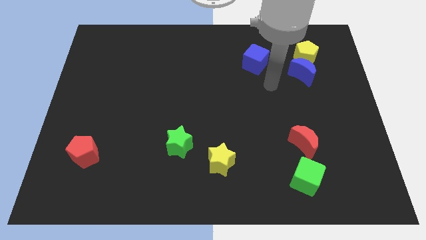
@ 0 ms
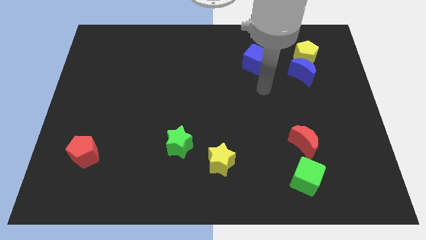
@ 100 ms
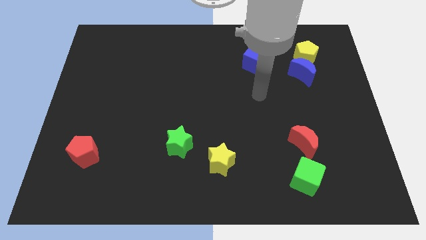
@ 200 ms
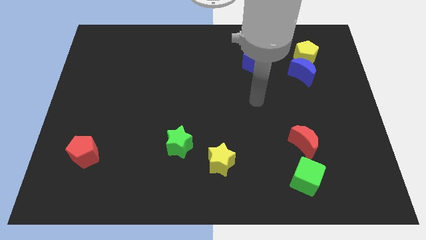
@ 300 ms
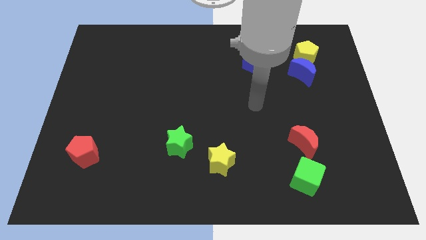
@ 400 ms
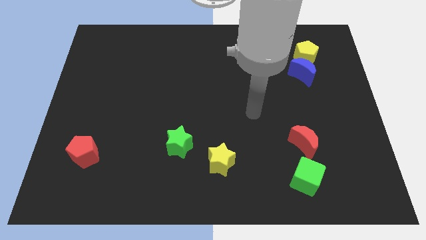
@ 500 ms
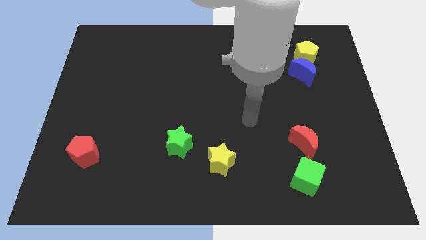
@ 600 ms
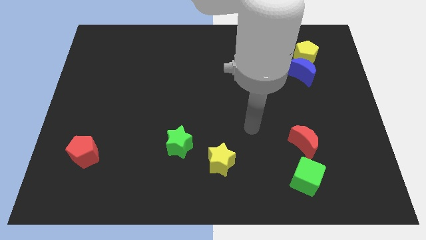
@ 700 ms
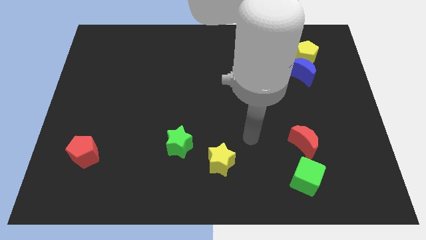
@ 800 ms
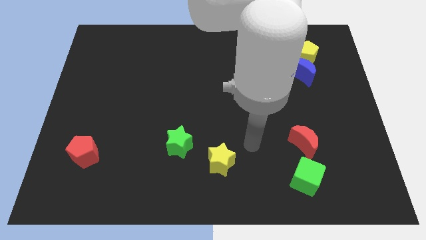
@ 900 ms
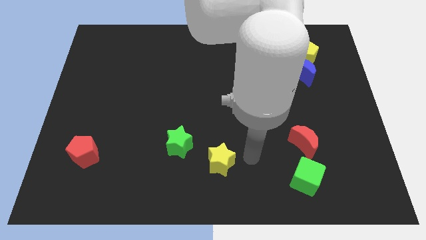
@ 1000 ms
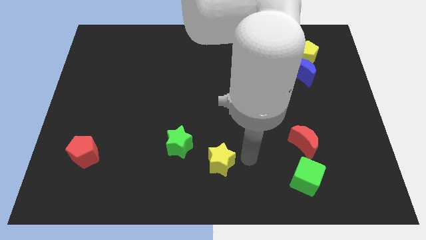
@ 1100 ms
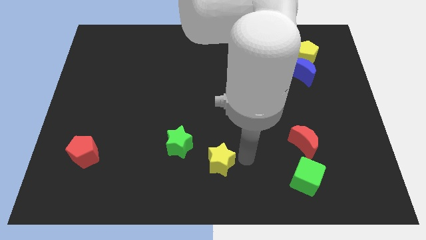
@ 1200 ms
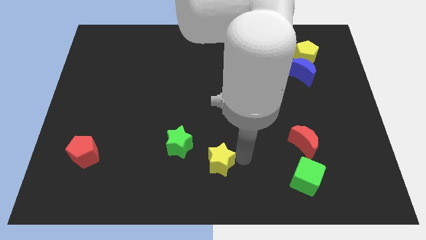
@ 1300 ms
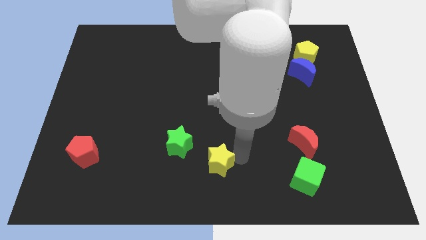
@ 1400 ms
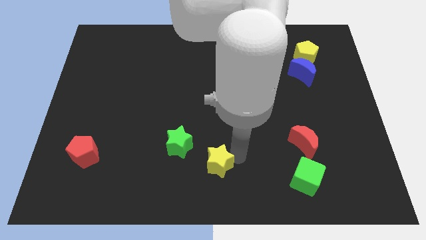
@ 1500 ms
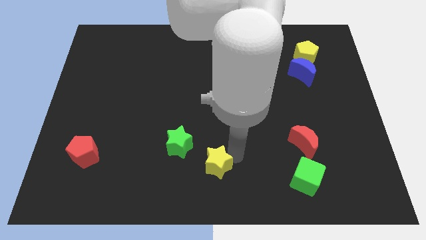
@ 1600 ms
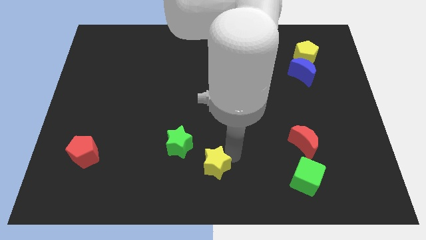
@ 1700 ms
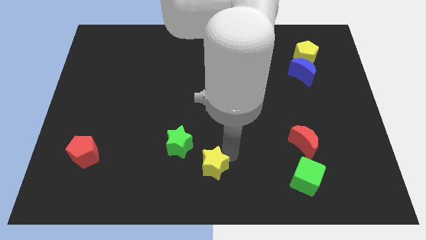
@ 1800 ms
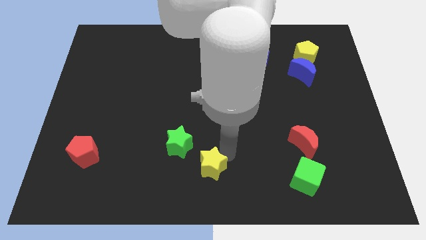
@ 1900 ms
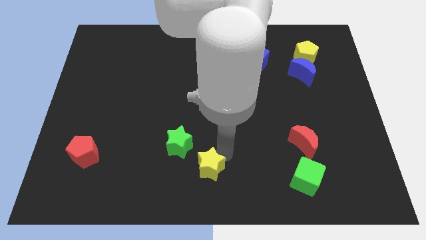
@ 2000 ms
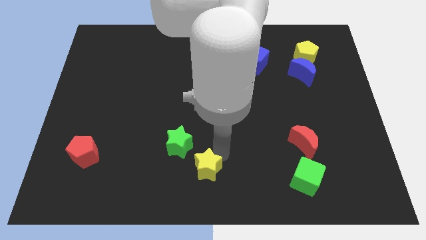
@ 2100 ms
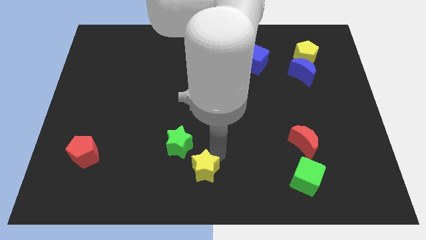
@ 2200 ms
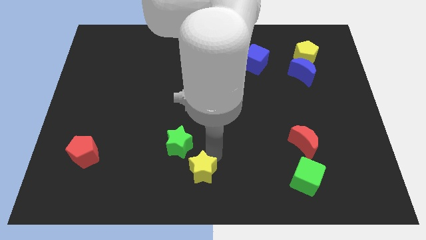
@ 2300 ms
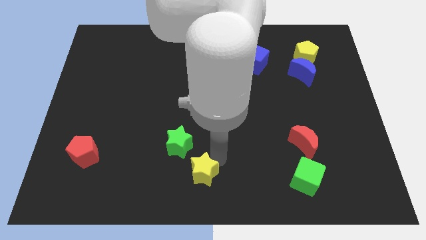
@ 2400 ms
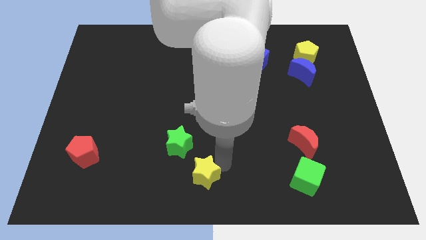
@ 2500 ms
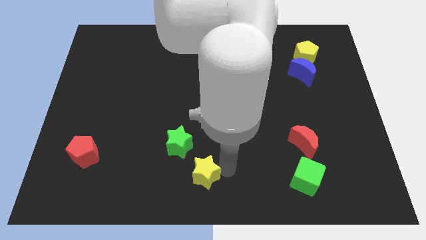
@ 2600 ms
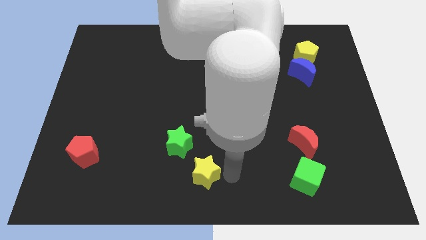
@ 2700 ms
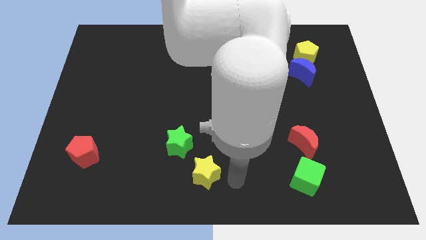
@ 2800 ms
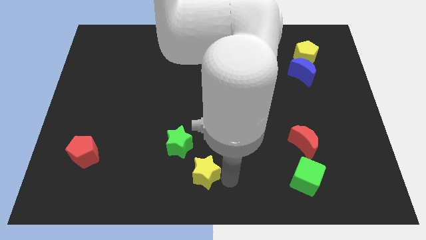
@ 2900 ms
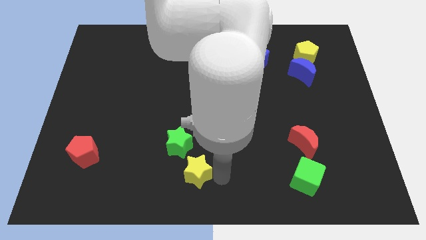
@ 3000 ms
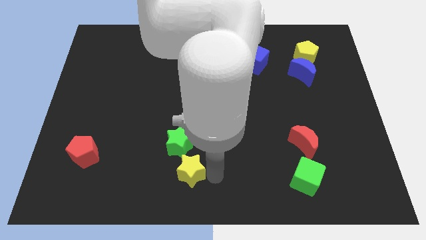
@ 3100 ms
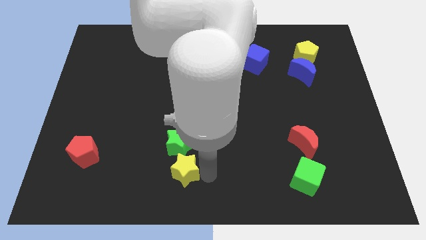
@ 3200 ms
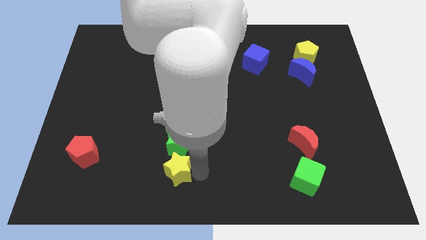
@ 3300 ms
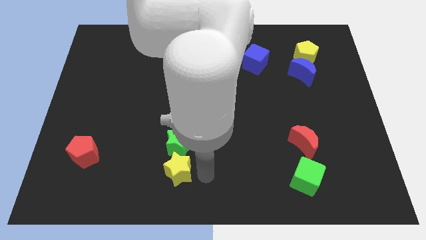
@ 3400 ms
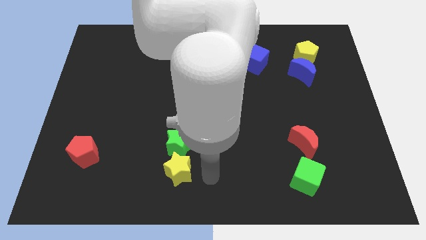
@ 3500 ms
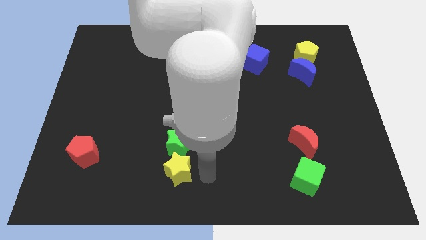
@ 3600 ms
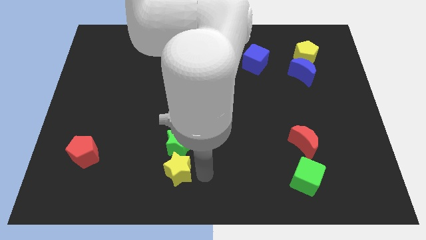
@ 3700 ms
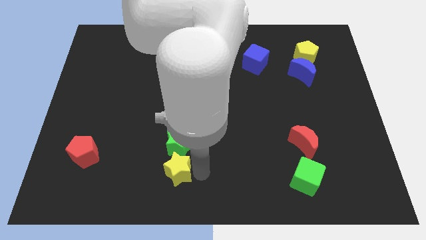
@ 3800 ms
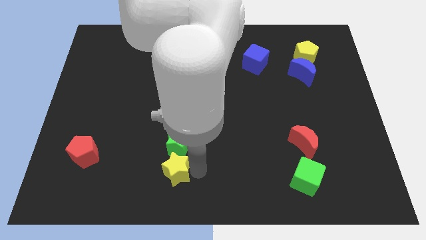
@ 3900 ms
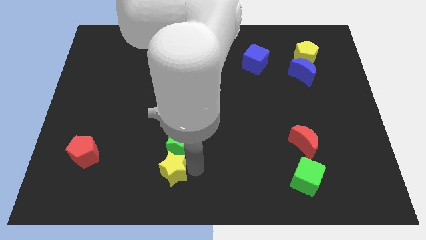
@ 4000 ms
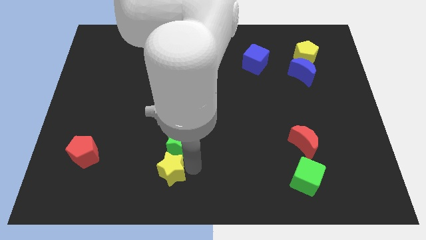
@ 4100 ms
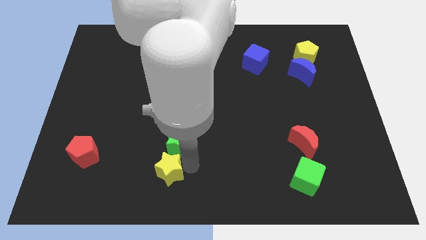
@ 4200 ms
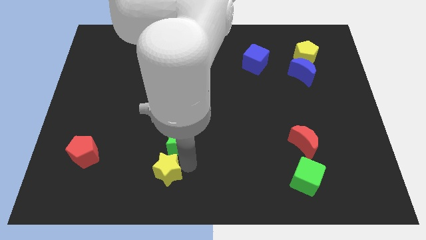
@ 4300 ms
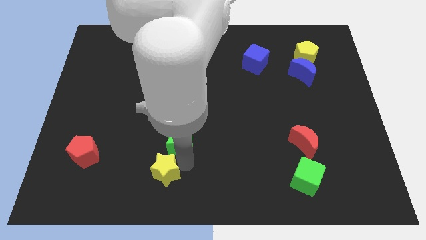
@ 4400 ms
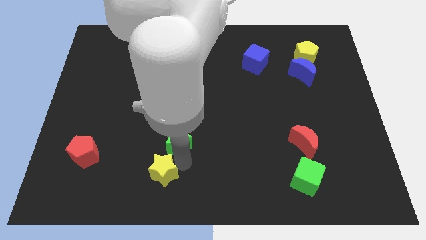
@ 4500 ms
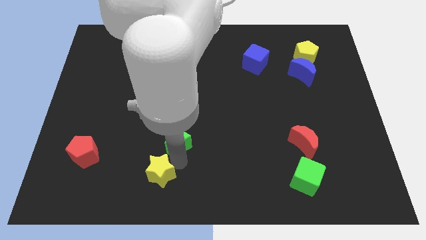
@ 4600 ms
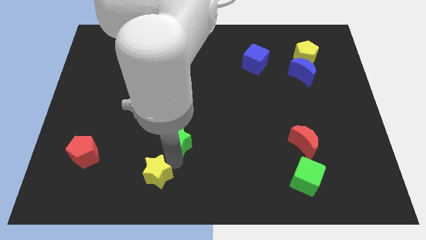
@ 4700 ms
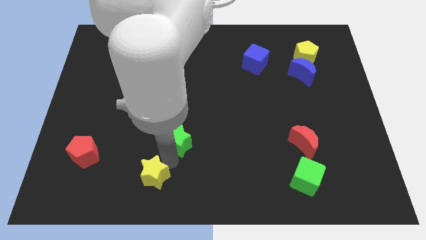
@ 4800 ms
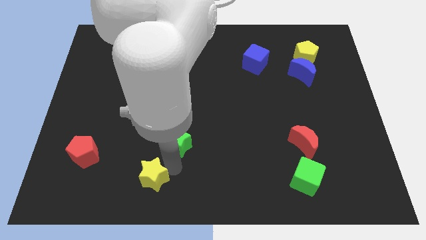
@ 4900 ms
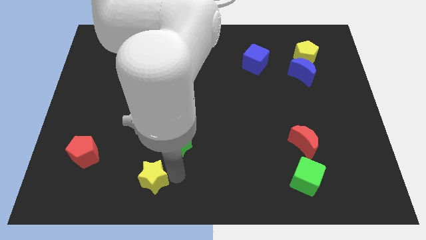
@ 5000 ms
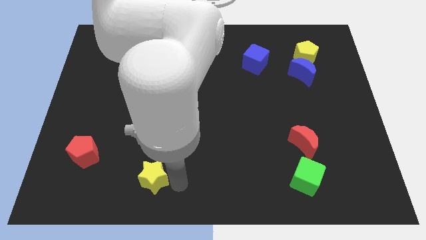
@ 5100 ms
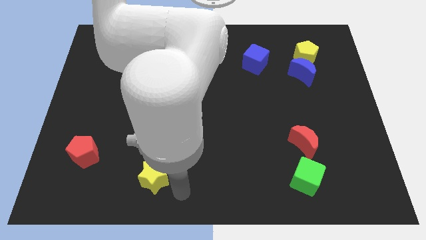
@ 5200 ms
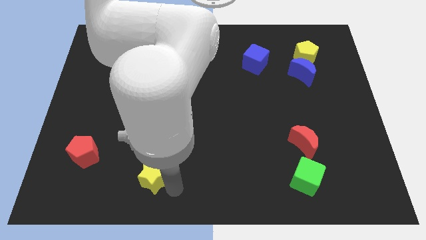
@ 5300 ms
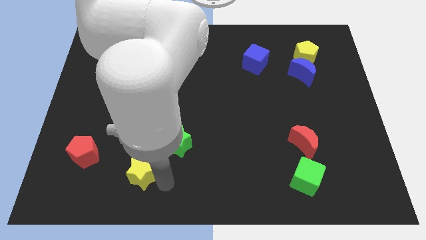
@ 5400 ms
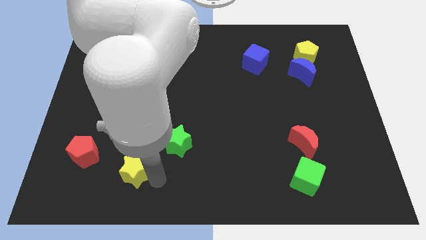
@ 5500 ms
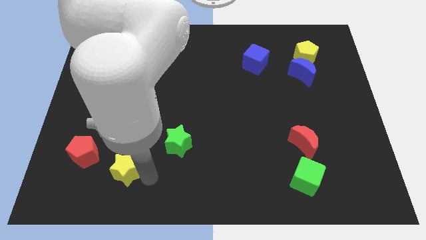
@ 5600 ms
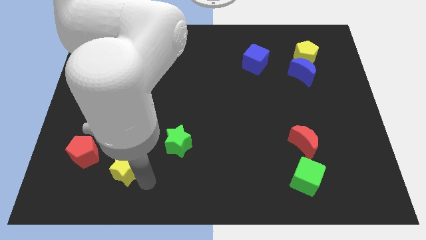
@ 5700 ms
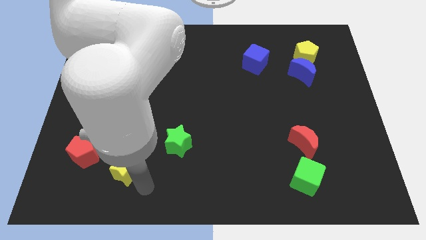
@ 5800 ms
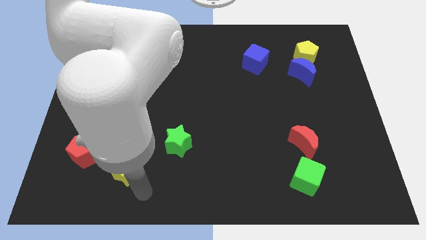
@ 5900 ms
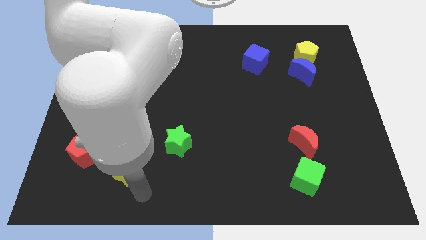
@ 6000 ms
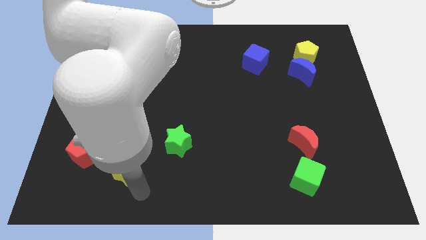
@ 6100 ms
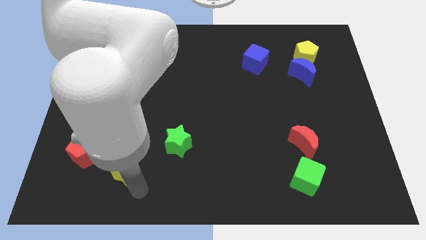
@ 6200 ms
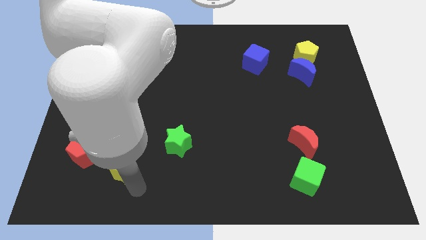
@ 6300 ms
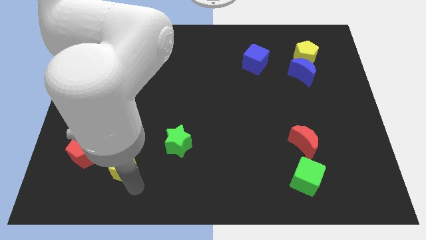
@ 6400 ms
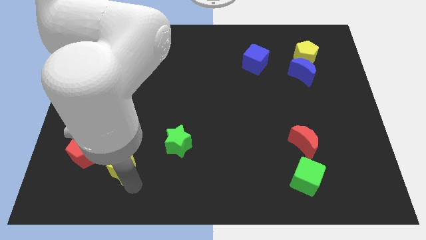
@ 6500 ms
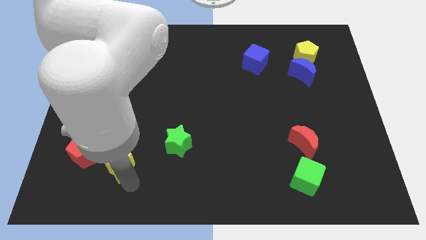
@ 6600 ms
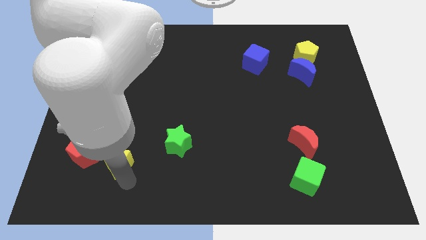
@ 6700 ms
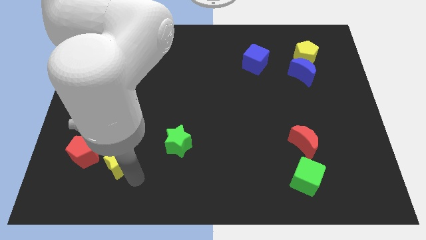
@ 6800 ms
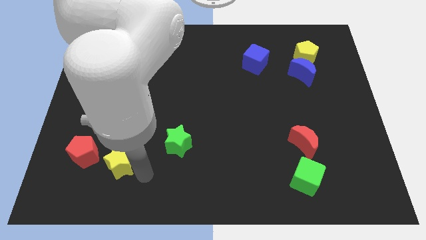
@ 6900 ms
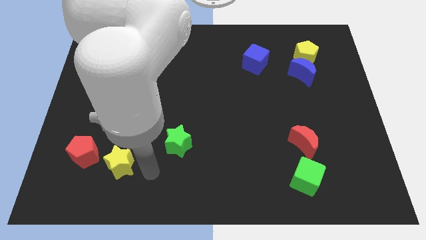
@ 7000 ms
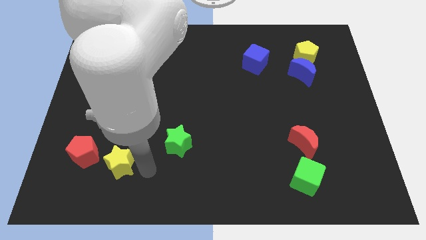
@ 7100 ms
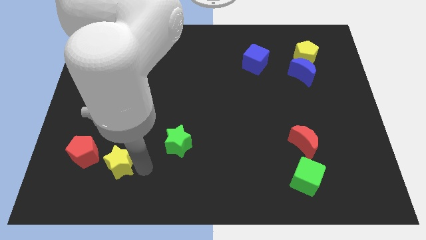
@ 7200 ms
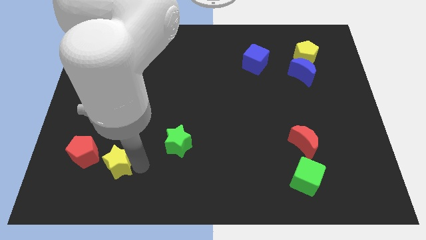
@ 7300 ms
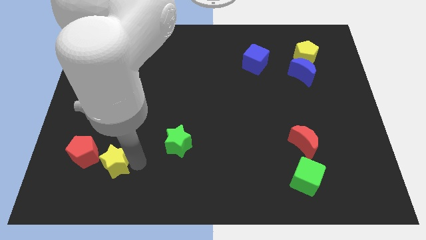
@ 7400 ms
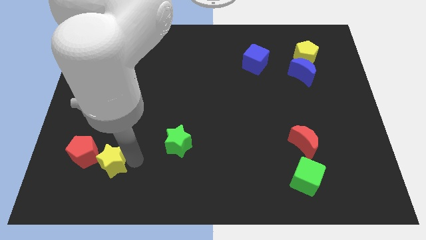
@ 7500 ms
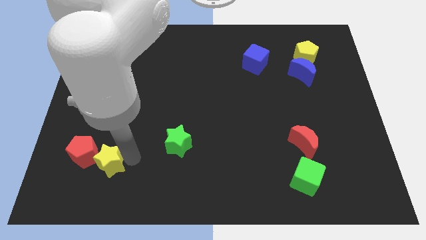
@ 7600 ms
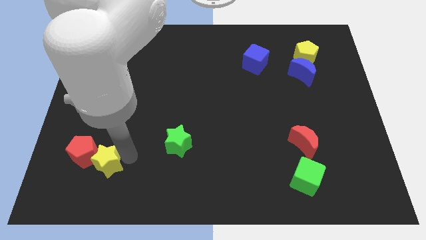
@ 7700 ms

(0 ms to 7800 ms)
put the yellow star close to the red pentagon
